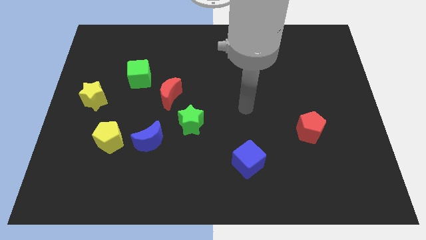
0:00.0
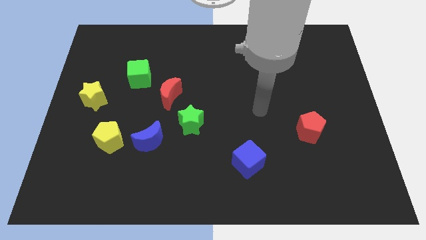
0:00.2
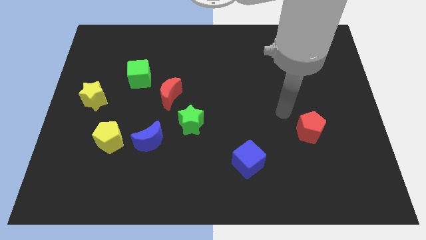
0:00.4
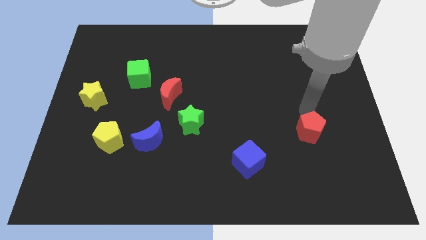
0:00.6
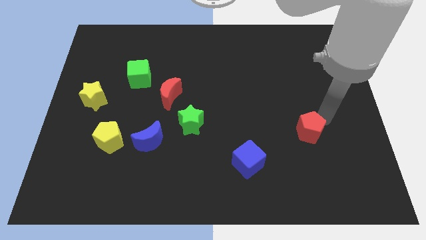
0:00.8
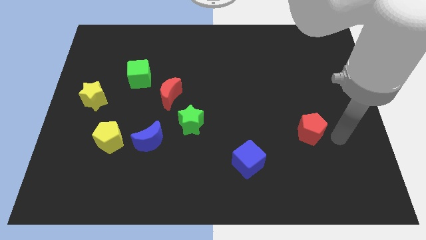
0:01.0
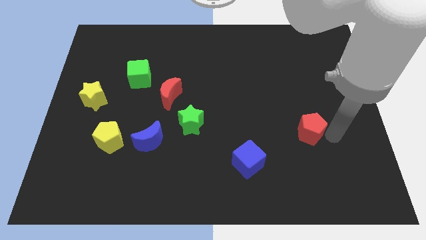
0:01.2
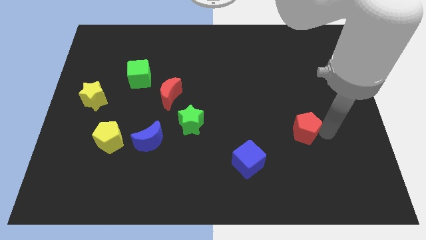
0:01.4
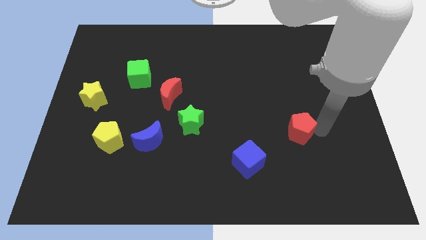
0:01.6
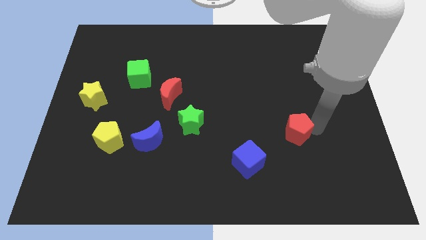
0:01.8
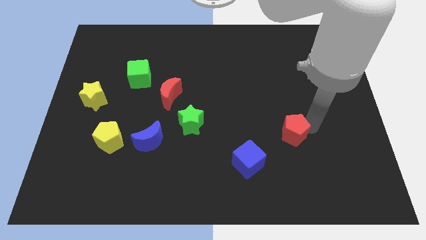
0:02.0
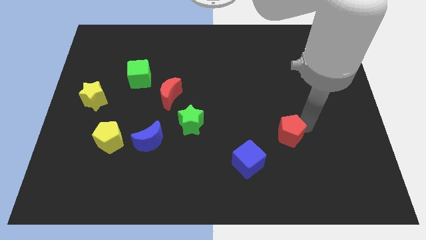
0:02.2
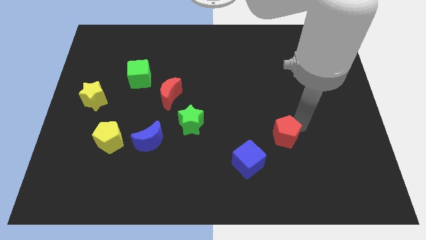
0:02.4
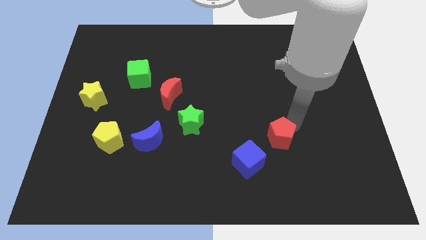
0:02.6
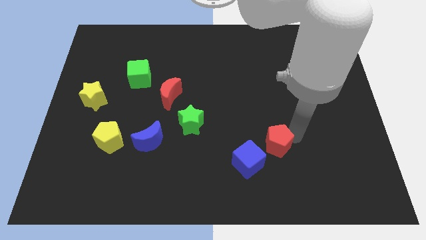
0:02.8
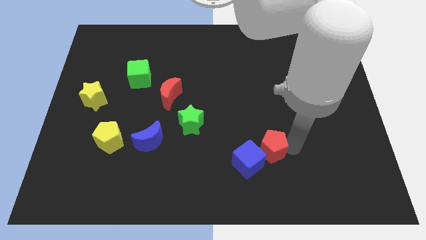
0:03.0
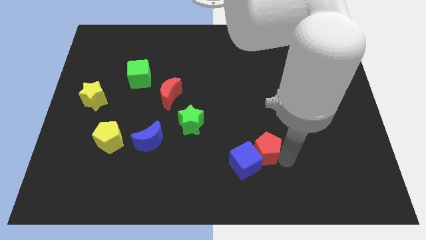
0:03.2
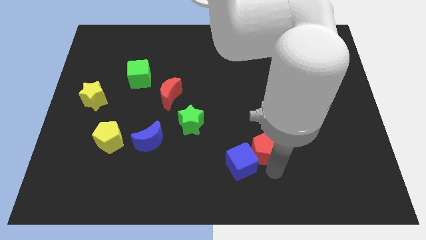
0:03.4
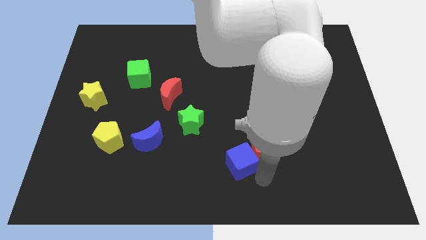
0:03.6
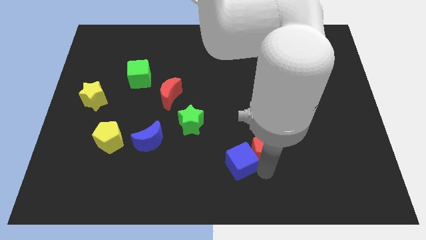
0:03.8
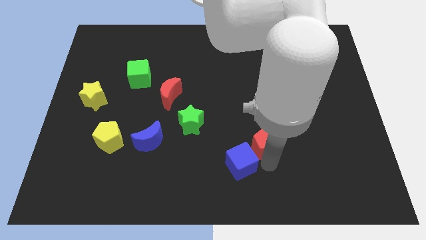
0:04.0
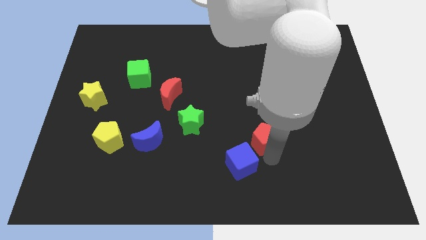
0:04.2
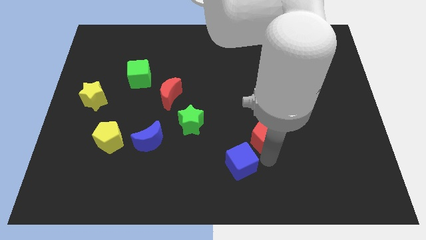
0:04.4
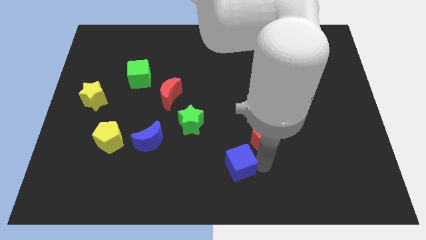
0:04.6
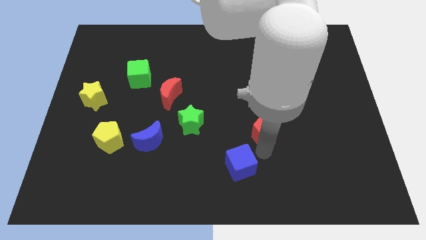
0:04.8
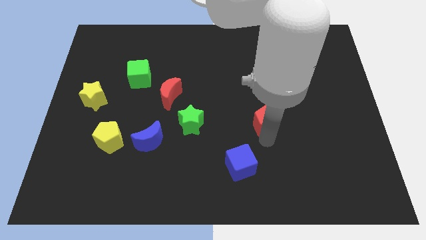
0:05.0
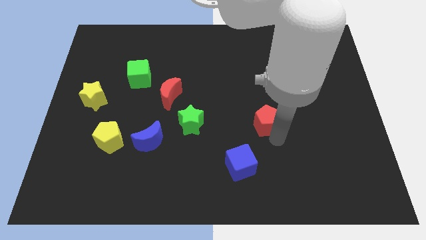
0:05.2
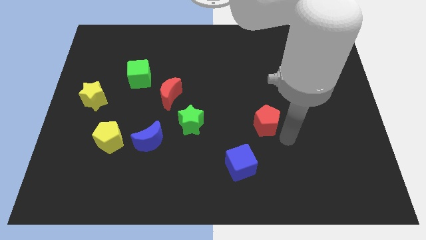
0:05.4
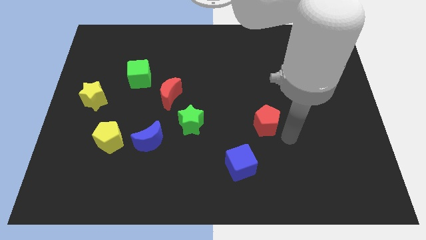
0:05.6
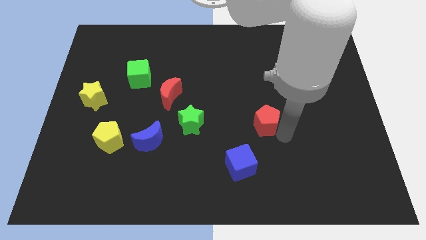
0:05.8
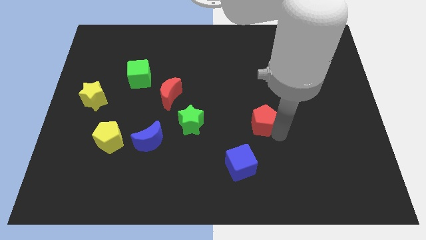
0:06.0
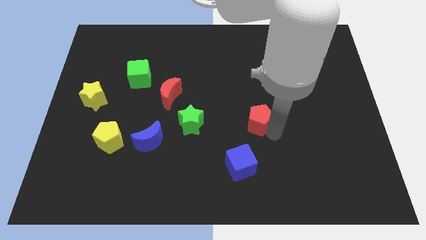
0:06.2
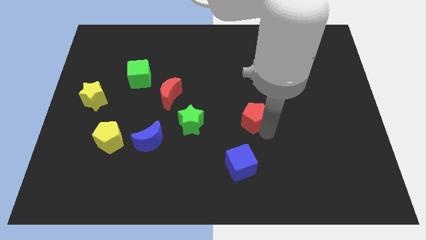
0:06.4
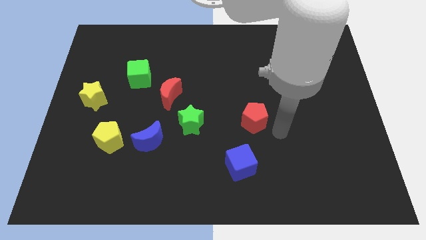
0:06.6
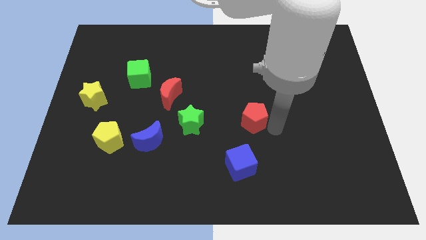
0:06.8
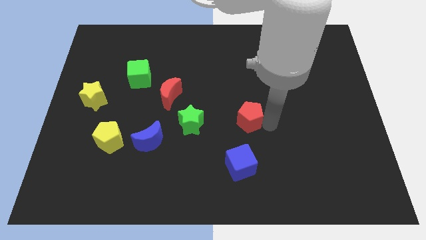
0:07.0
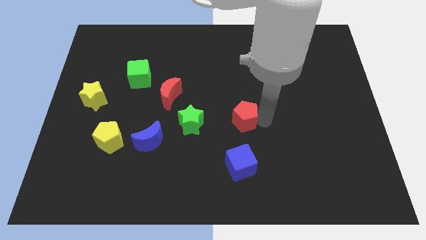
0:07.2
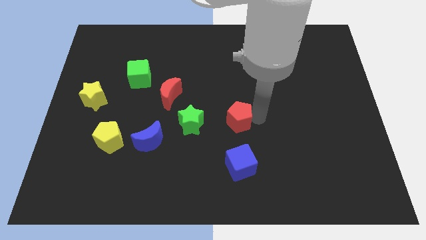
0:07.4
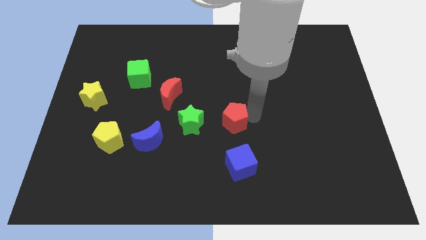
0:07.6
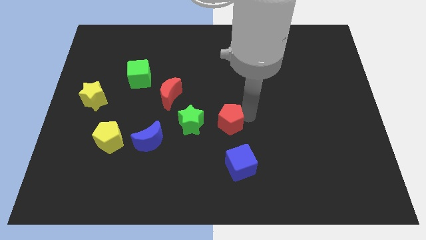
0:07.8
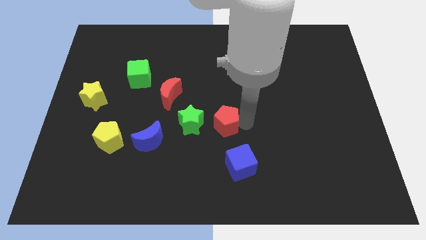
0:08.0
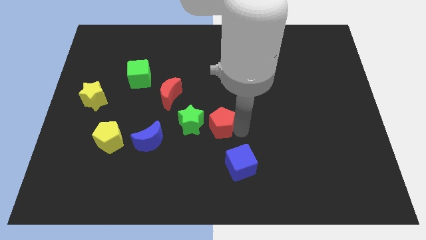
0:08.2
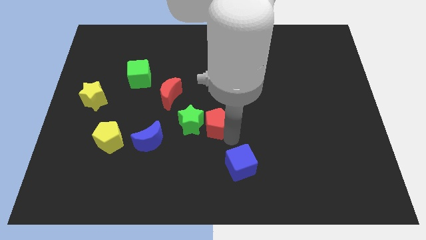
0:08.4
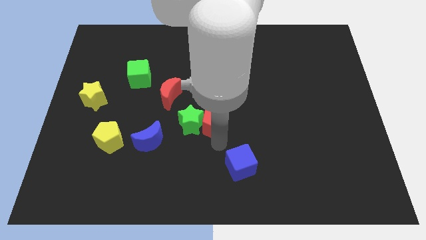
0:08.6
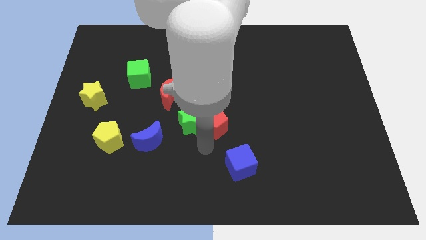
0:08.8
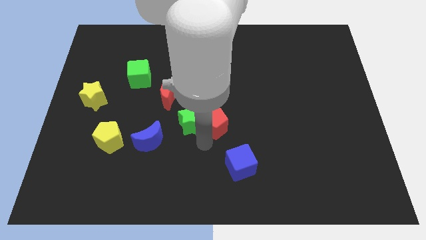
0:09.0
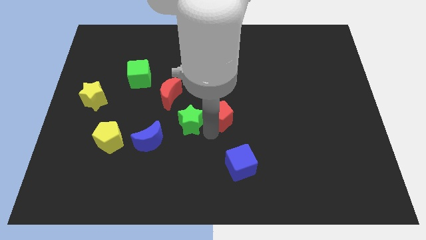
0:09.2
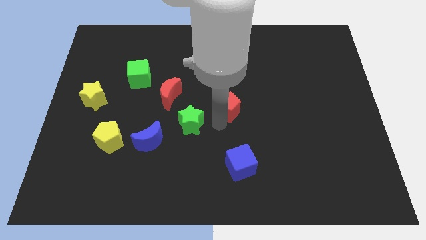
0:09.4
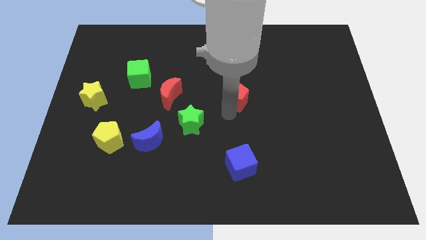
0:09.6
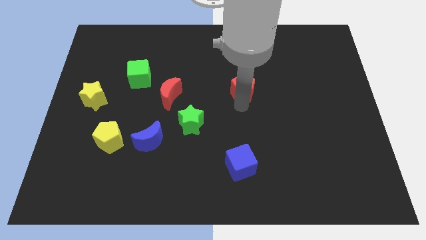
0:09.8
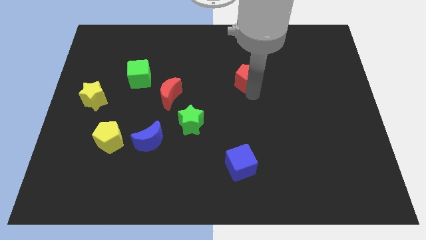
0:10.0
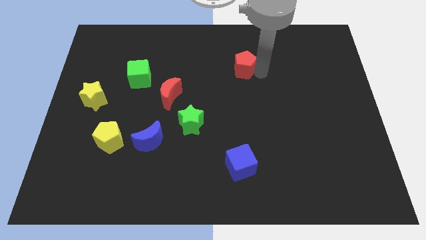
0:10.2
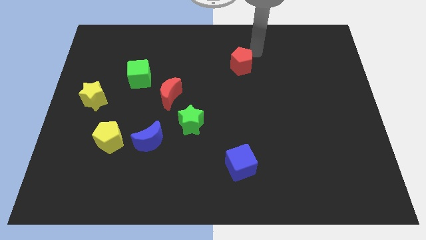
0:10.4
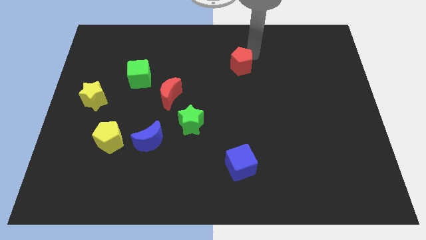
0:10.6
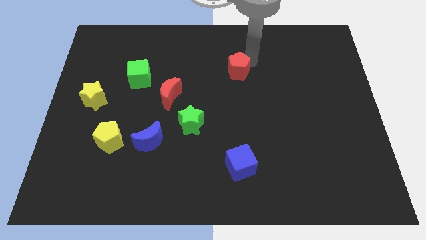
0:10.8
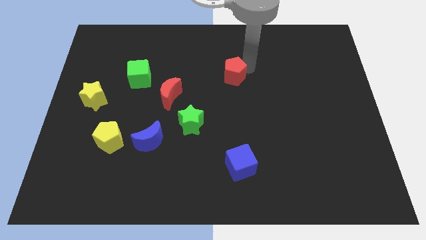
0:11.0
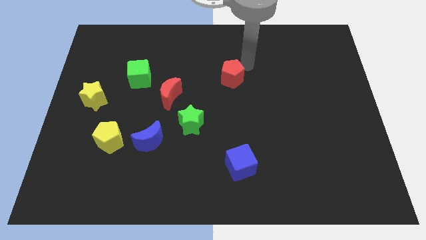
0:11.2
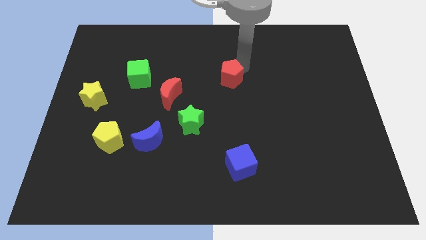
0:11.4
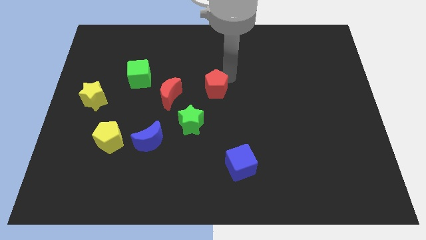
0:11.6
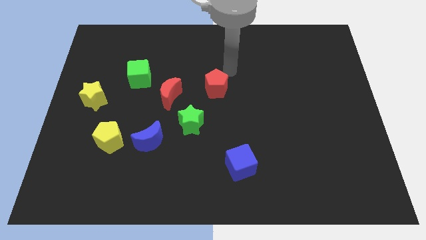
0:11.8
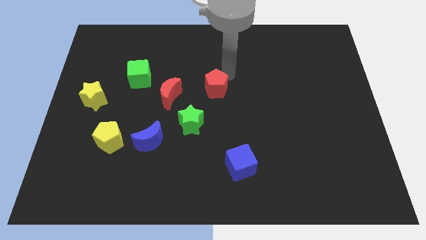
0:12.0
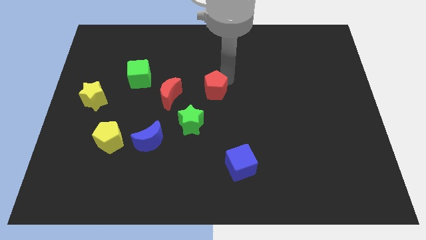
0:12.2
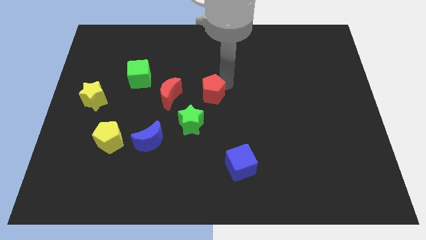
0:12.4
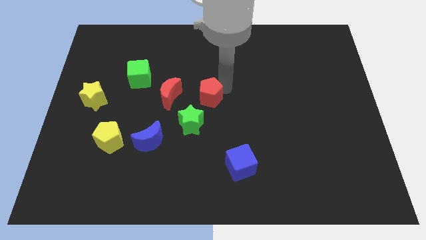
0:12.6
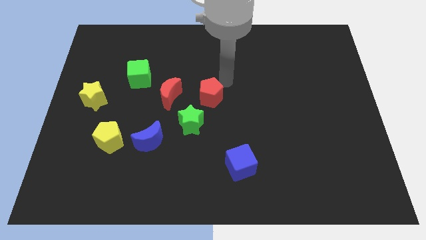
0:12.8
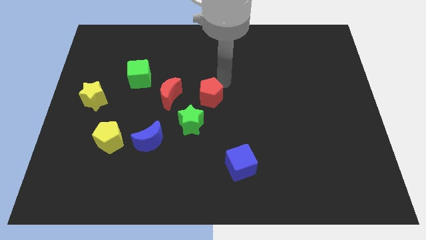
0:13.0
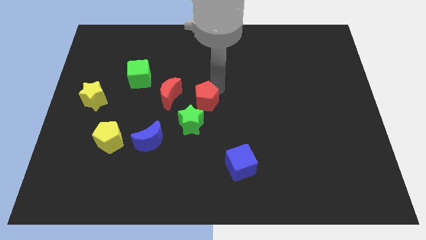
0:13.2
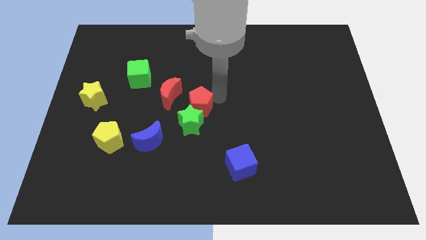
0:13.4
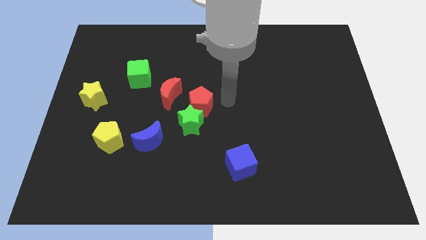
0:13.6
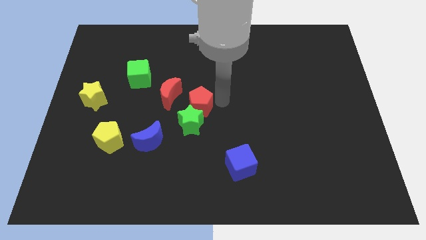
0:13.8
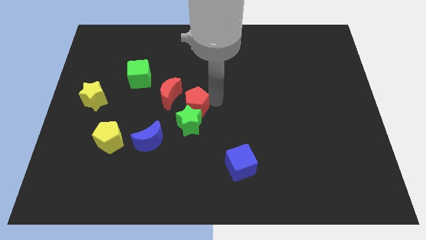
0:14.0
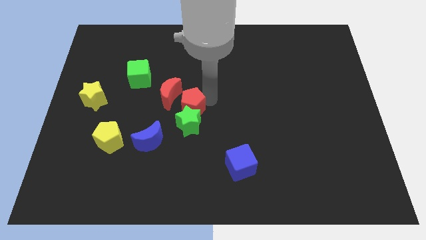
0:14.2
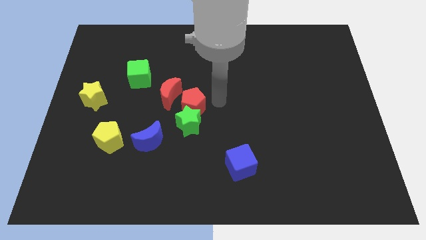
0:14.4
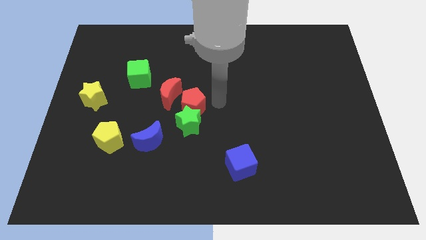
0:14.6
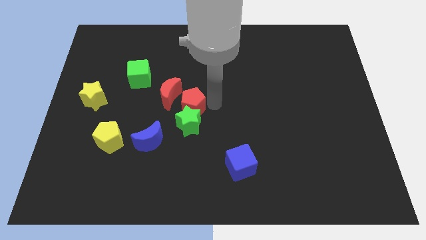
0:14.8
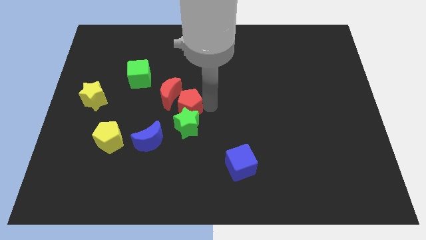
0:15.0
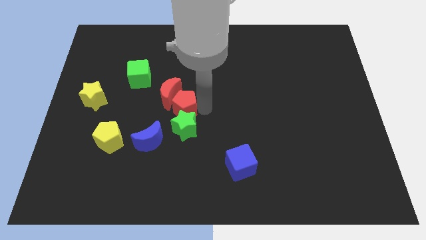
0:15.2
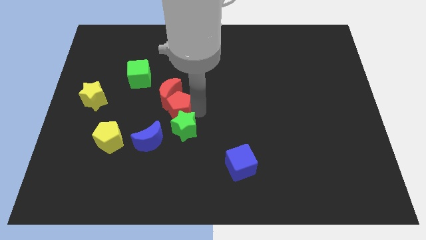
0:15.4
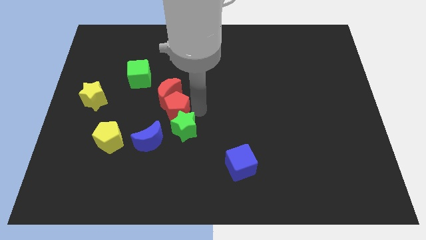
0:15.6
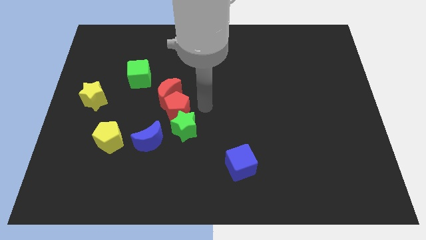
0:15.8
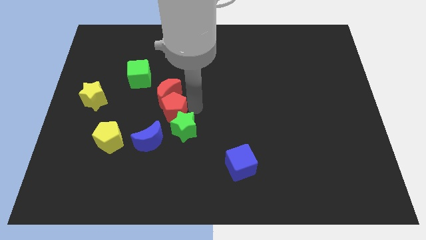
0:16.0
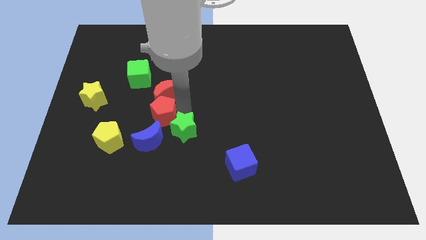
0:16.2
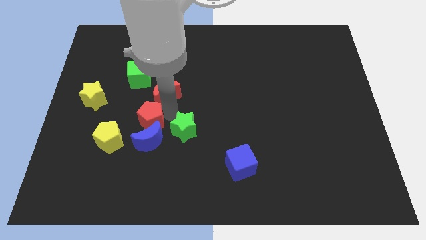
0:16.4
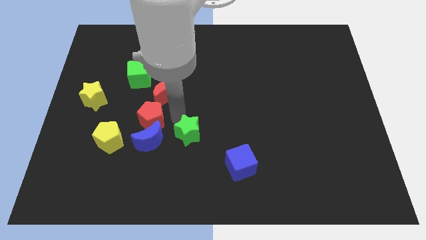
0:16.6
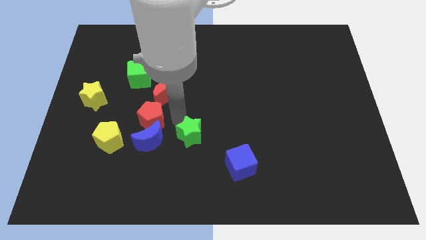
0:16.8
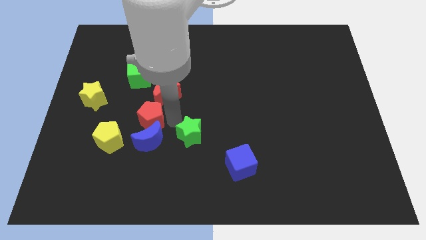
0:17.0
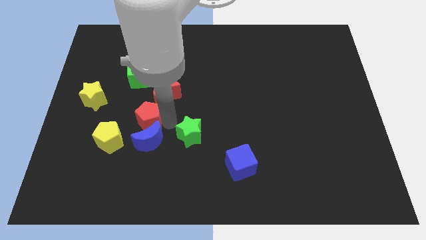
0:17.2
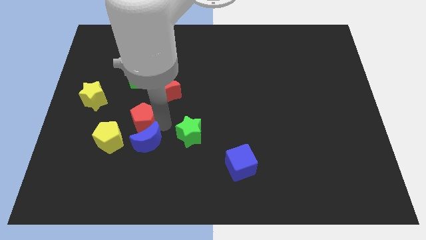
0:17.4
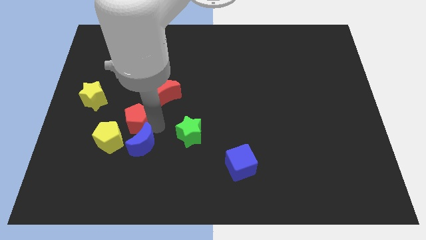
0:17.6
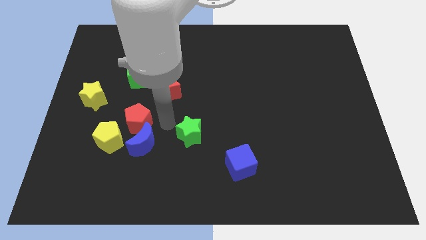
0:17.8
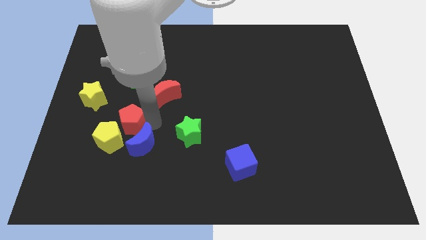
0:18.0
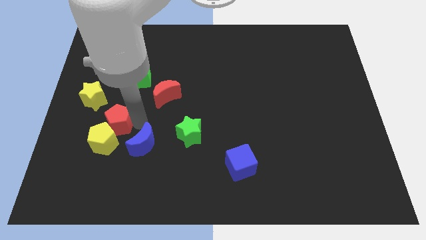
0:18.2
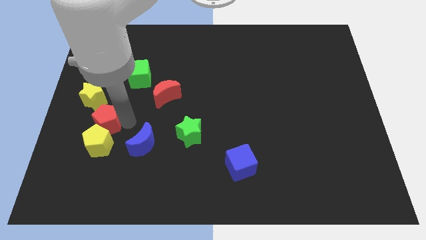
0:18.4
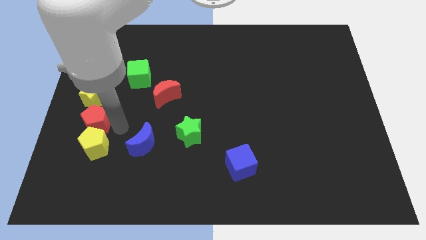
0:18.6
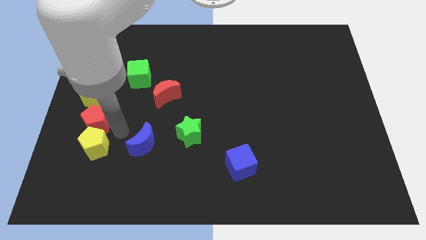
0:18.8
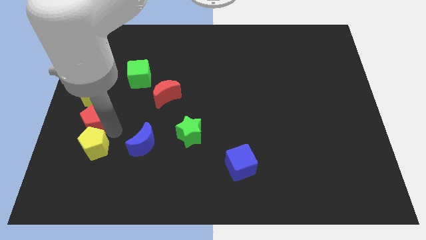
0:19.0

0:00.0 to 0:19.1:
put the red pentagon to the center left
